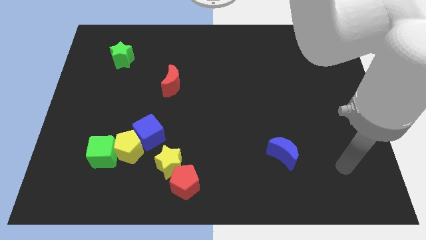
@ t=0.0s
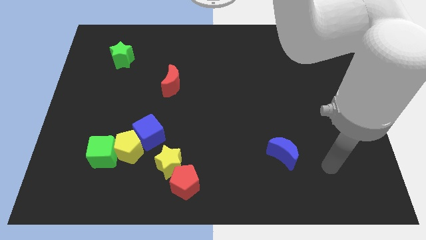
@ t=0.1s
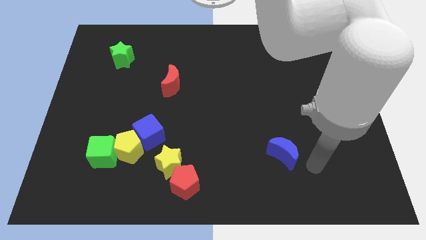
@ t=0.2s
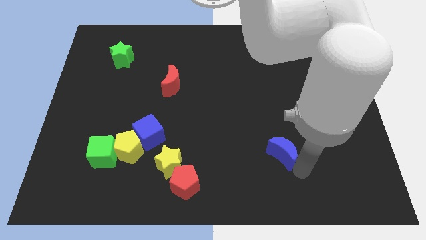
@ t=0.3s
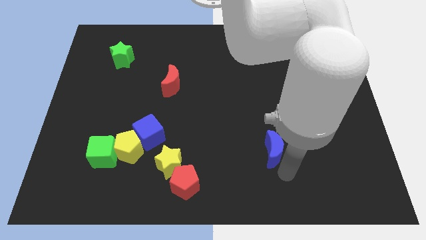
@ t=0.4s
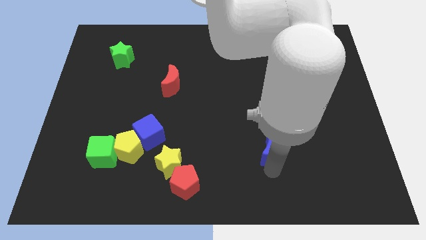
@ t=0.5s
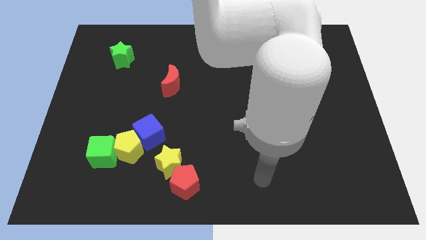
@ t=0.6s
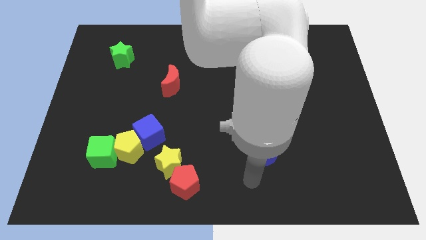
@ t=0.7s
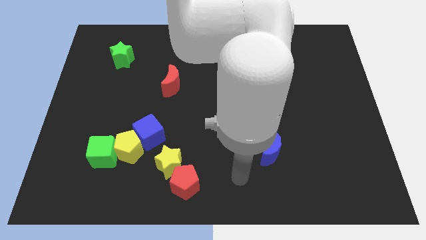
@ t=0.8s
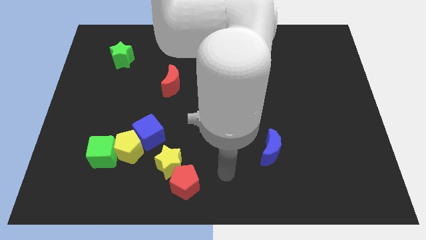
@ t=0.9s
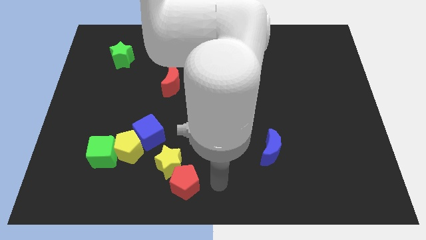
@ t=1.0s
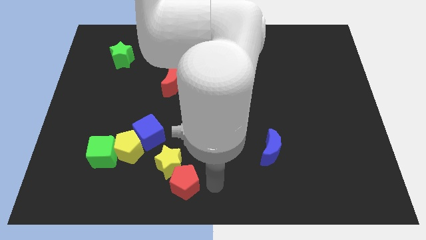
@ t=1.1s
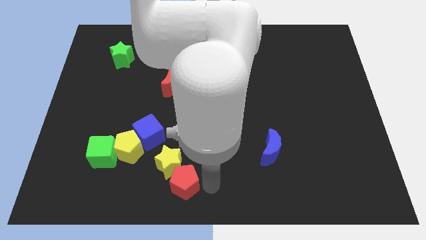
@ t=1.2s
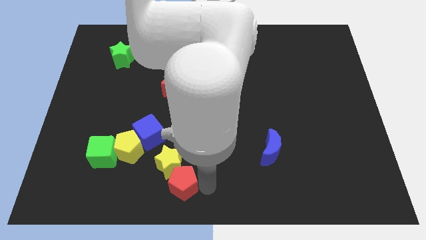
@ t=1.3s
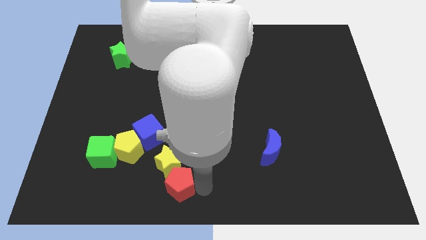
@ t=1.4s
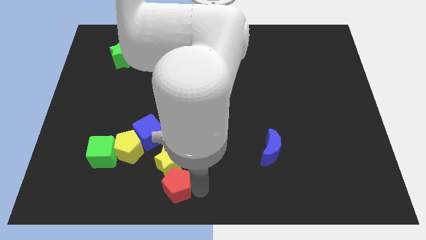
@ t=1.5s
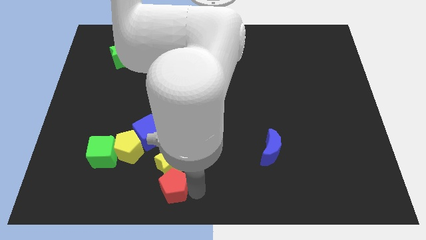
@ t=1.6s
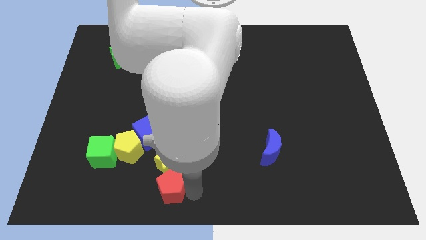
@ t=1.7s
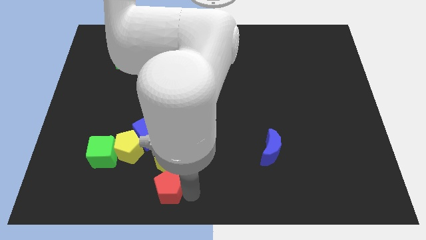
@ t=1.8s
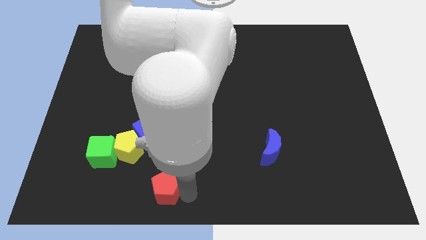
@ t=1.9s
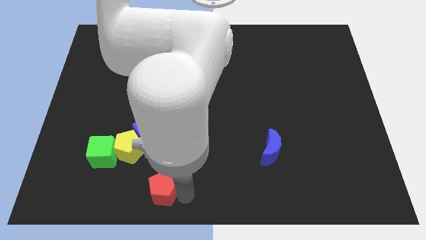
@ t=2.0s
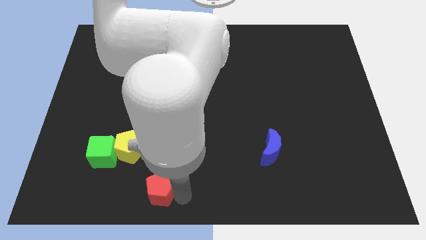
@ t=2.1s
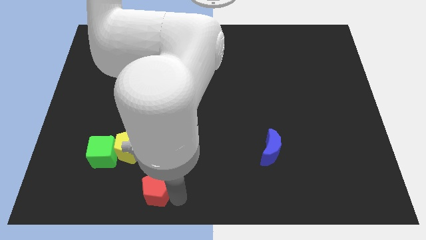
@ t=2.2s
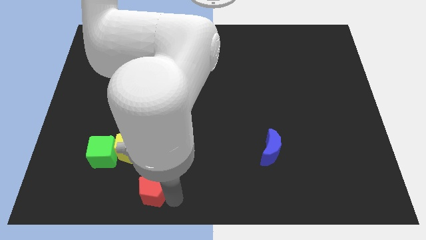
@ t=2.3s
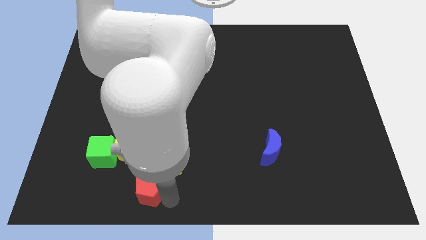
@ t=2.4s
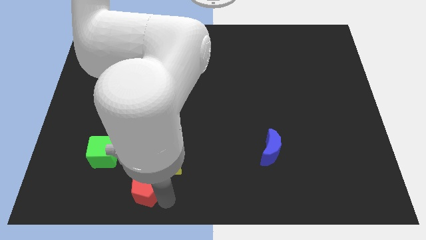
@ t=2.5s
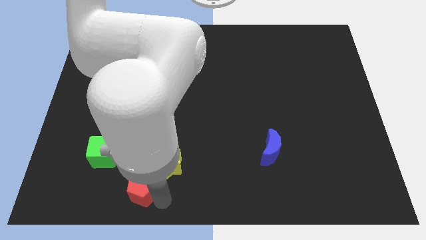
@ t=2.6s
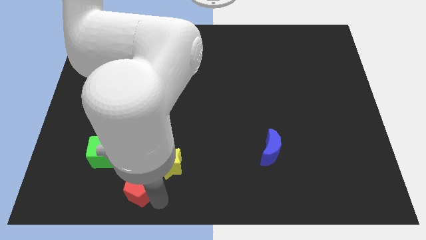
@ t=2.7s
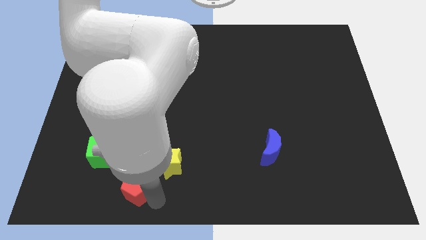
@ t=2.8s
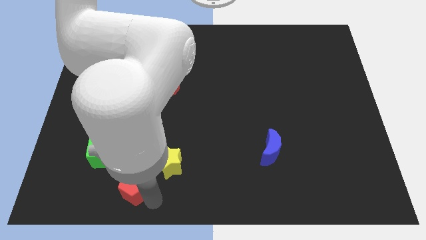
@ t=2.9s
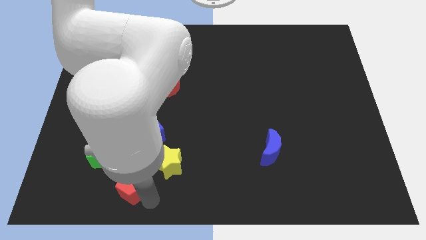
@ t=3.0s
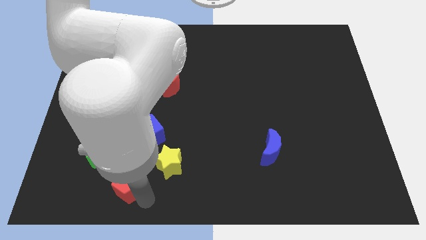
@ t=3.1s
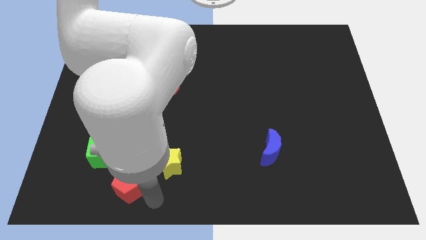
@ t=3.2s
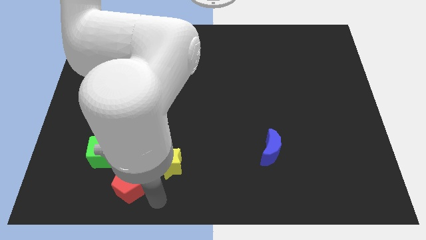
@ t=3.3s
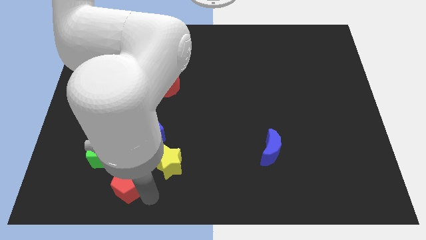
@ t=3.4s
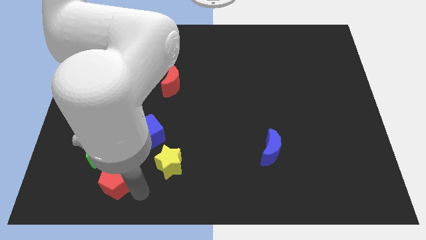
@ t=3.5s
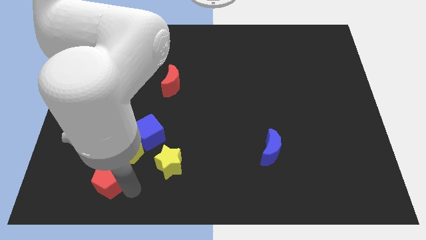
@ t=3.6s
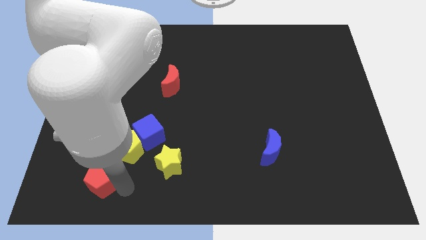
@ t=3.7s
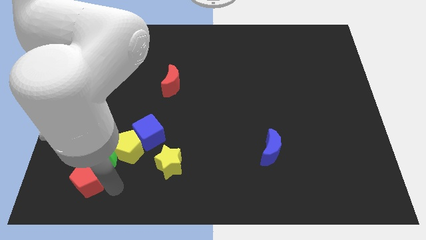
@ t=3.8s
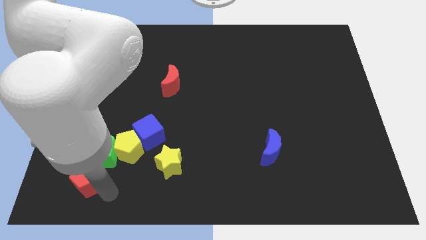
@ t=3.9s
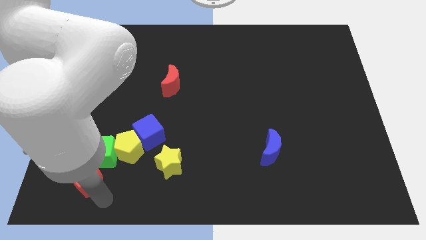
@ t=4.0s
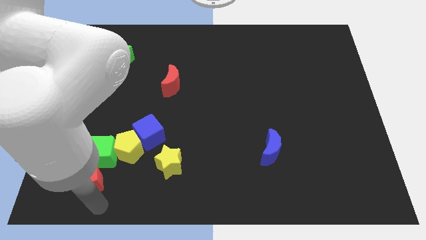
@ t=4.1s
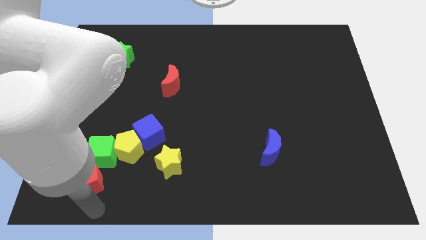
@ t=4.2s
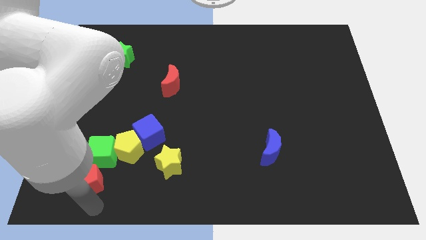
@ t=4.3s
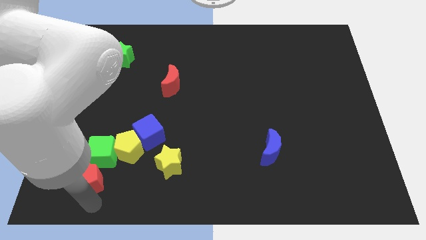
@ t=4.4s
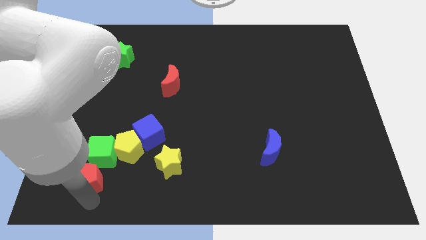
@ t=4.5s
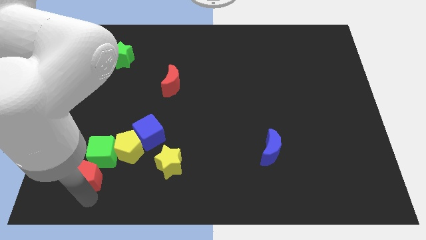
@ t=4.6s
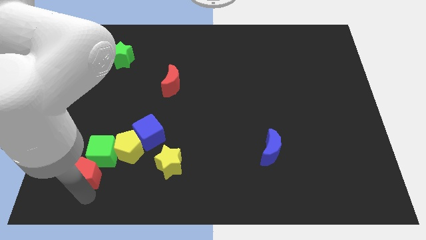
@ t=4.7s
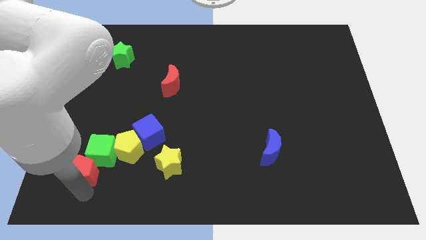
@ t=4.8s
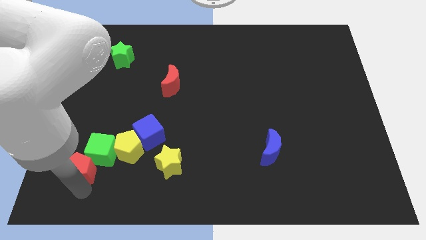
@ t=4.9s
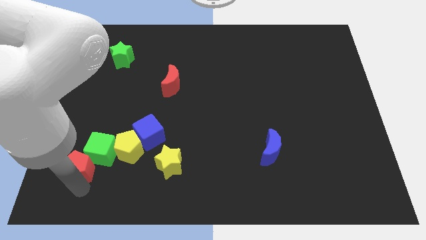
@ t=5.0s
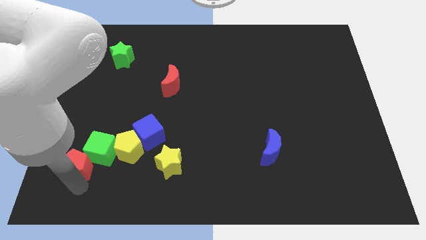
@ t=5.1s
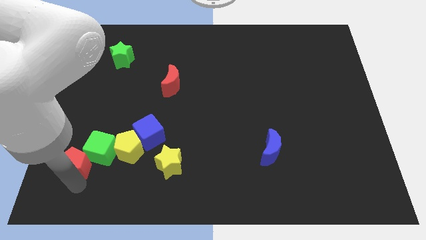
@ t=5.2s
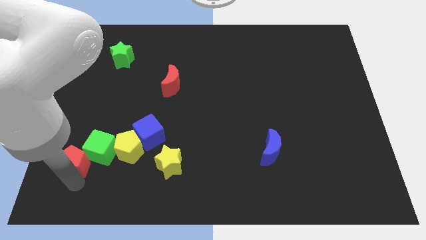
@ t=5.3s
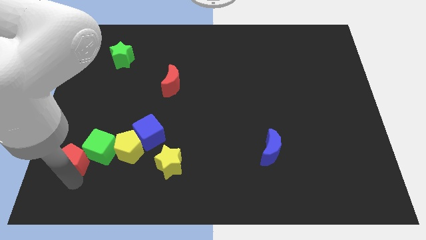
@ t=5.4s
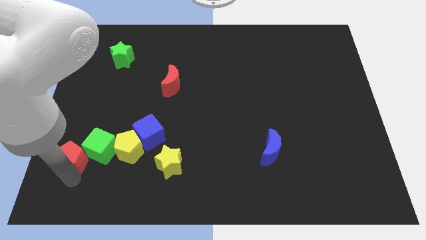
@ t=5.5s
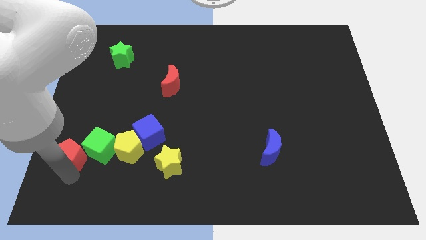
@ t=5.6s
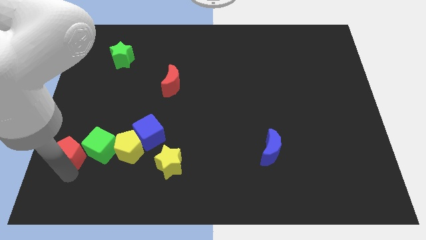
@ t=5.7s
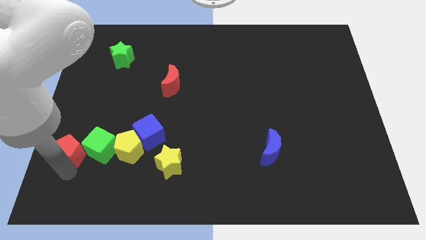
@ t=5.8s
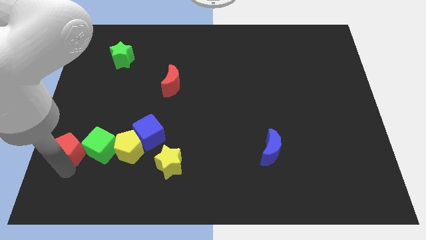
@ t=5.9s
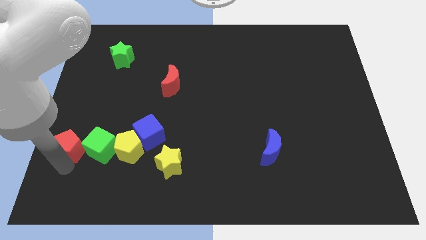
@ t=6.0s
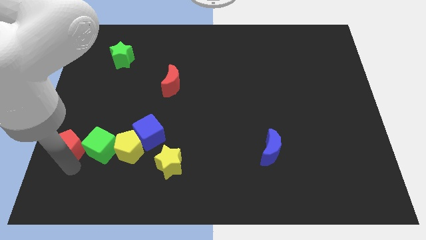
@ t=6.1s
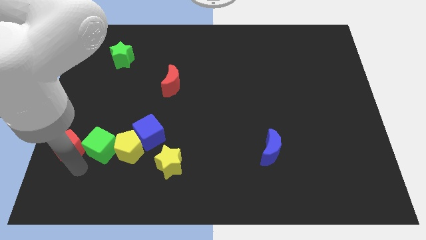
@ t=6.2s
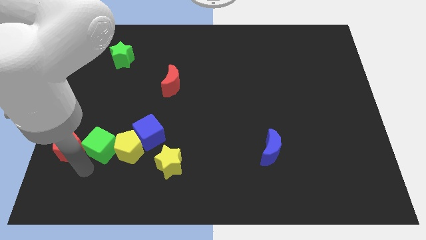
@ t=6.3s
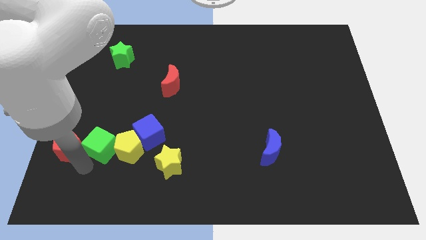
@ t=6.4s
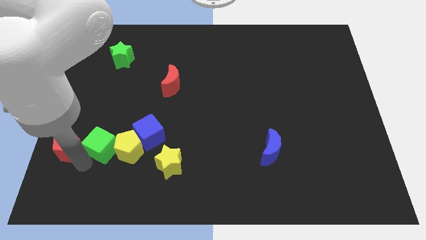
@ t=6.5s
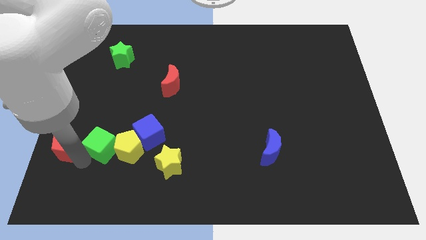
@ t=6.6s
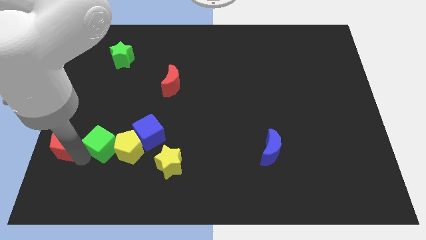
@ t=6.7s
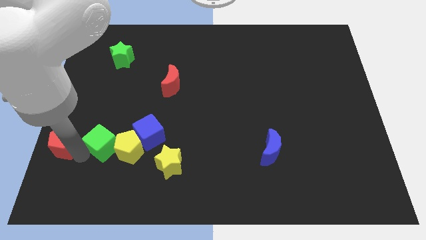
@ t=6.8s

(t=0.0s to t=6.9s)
move the red pentagon to the left side
